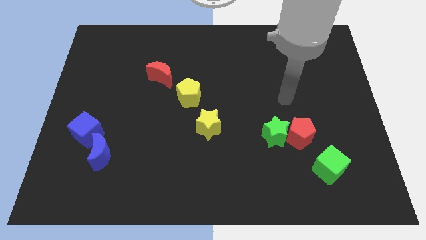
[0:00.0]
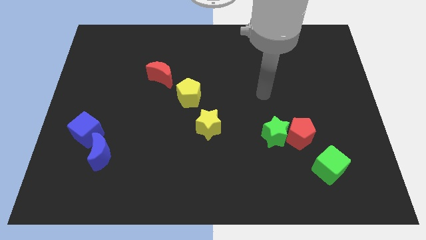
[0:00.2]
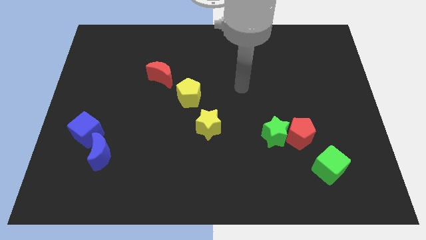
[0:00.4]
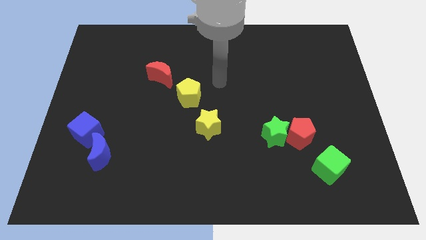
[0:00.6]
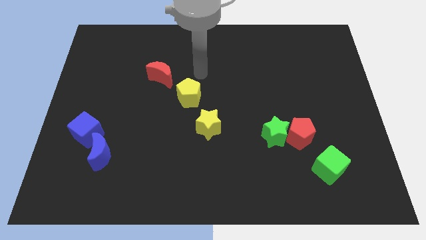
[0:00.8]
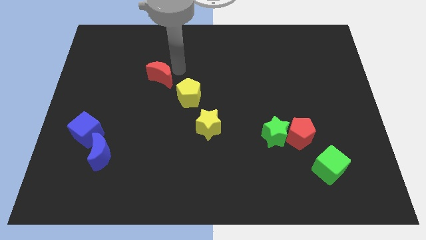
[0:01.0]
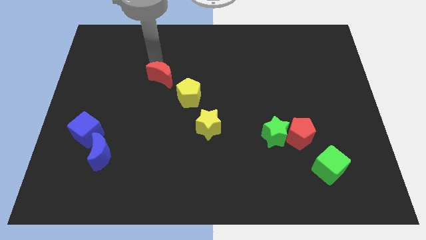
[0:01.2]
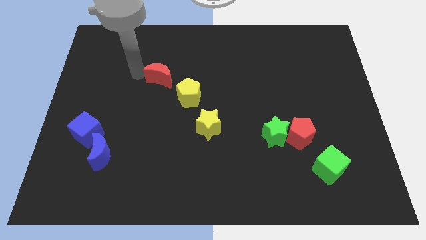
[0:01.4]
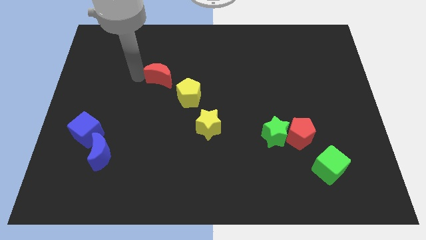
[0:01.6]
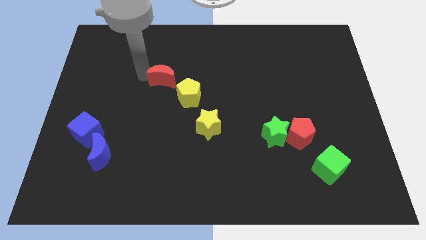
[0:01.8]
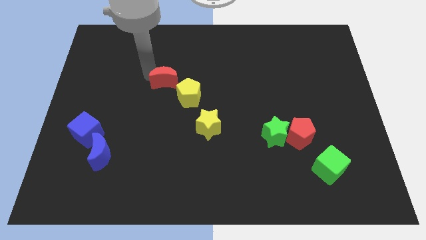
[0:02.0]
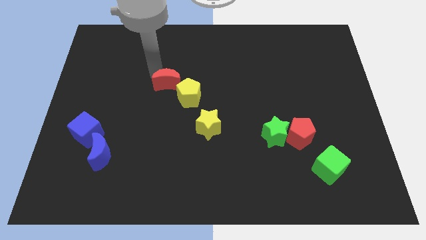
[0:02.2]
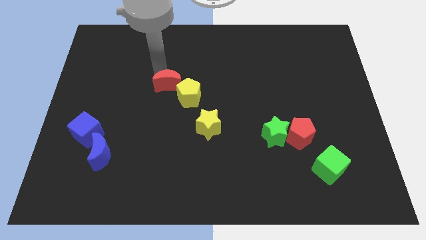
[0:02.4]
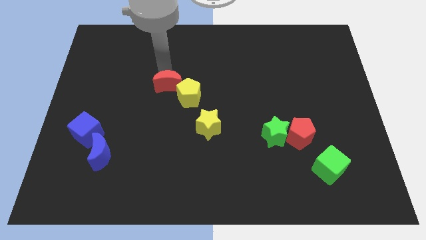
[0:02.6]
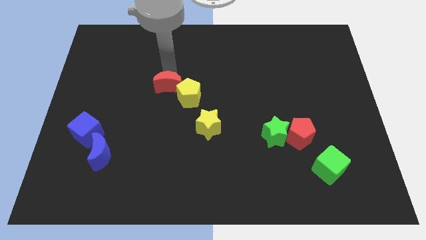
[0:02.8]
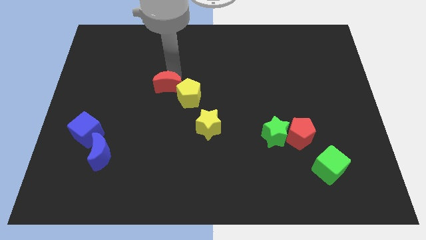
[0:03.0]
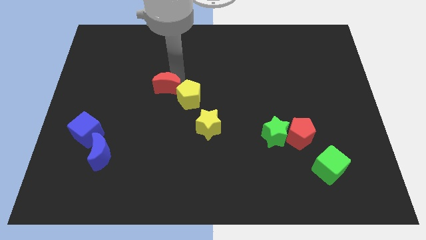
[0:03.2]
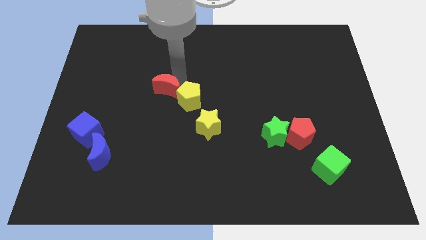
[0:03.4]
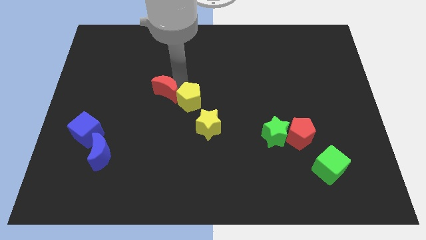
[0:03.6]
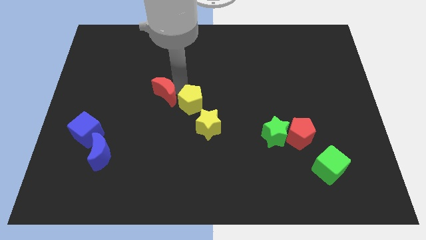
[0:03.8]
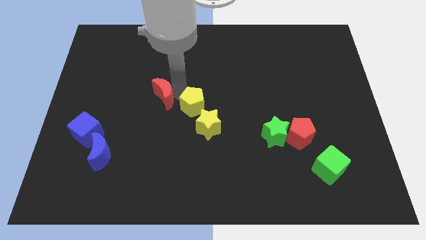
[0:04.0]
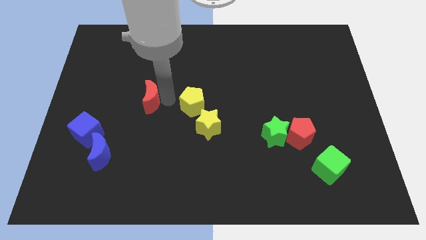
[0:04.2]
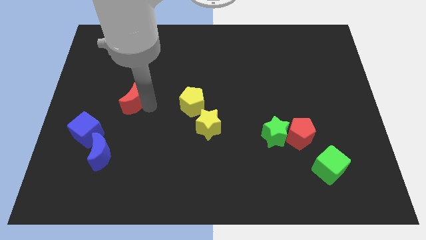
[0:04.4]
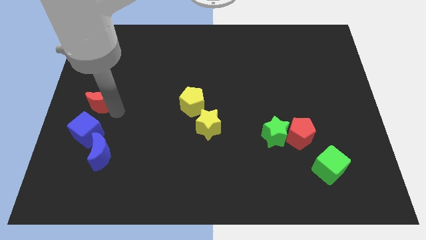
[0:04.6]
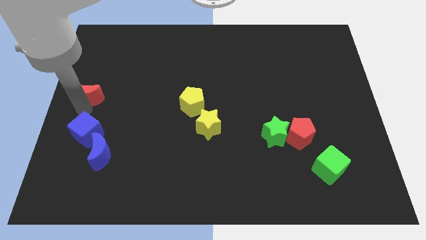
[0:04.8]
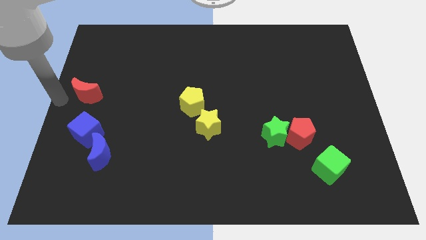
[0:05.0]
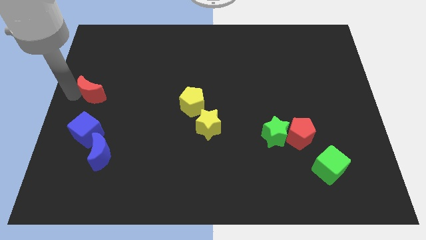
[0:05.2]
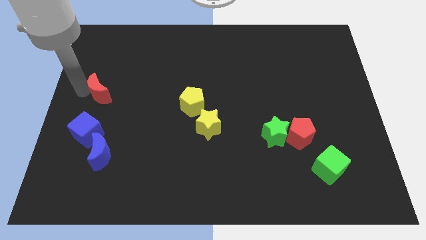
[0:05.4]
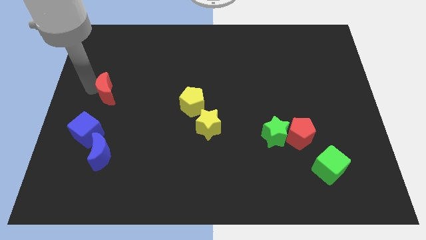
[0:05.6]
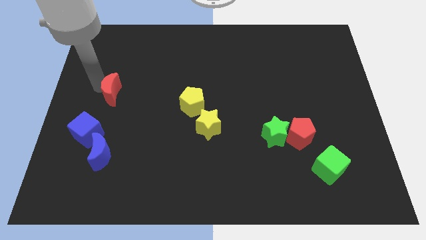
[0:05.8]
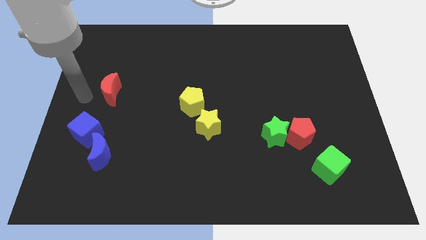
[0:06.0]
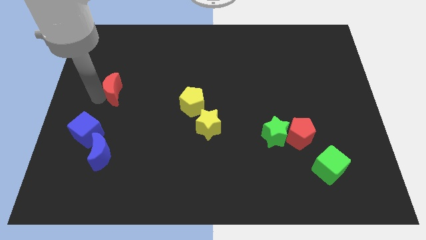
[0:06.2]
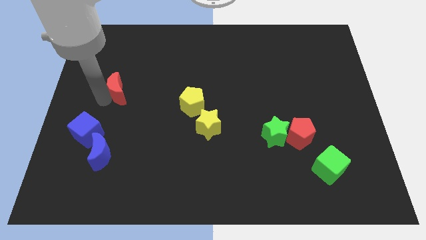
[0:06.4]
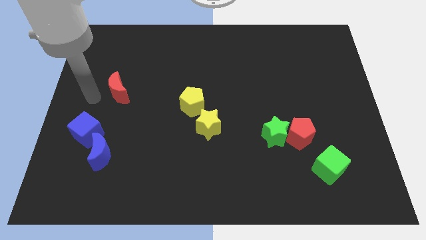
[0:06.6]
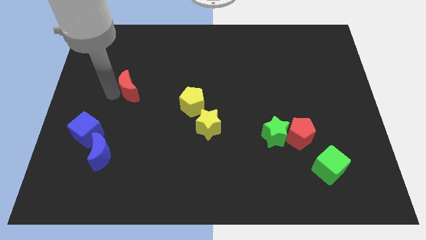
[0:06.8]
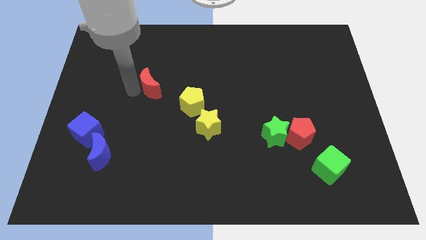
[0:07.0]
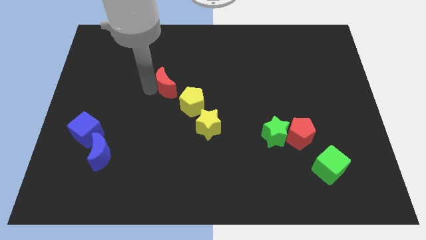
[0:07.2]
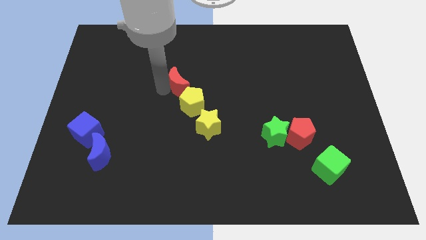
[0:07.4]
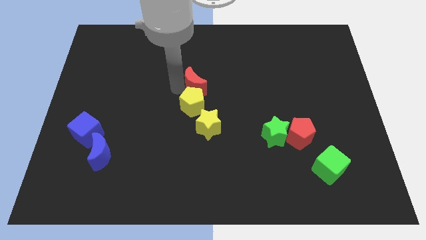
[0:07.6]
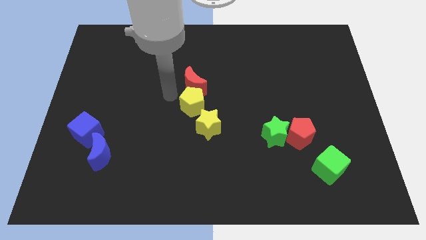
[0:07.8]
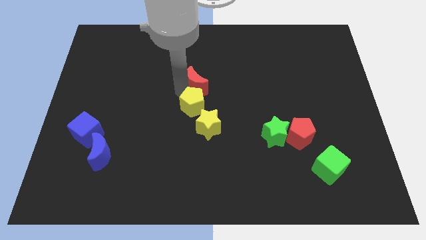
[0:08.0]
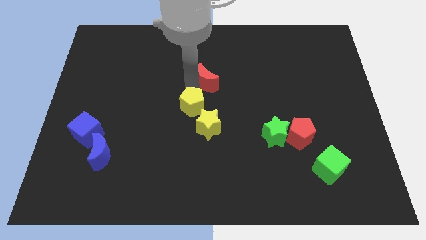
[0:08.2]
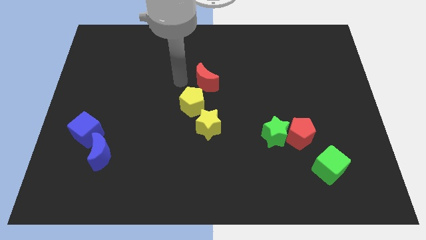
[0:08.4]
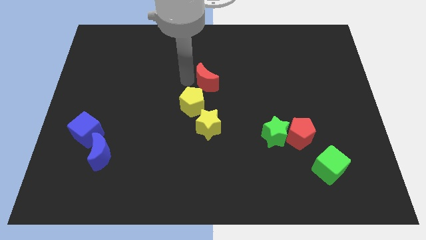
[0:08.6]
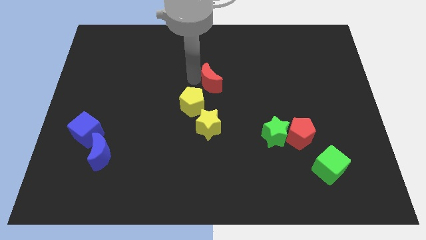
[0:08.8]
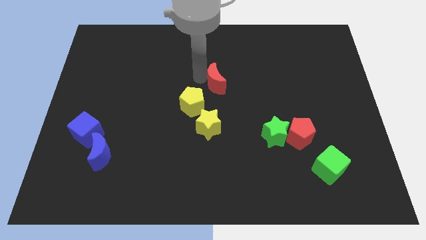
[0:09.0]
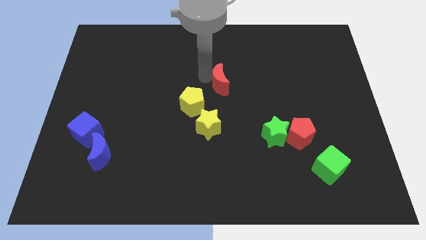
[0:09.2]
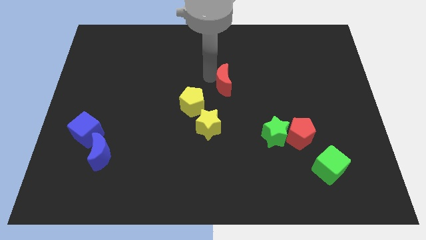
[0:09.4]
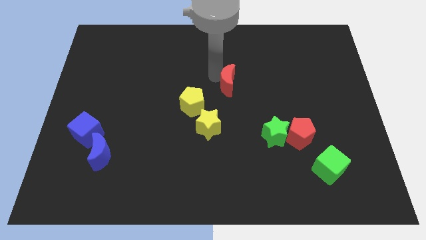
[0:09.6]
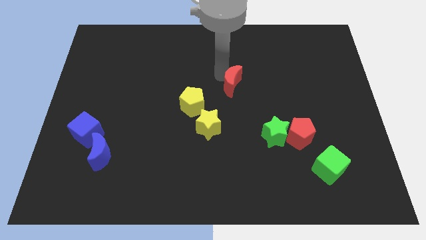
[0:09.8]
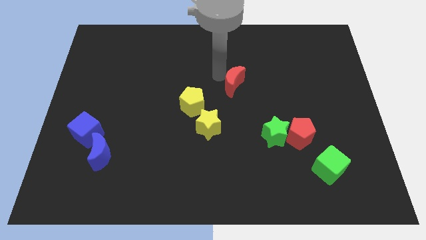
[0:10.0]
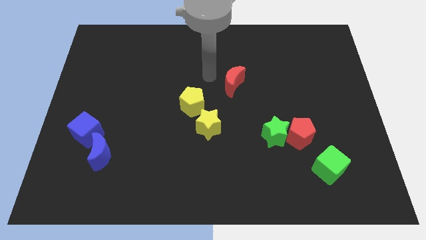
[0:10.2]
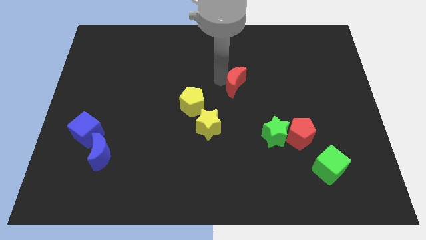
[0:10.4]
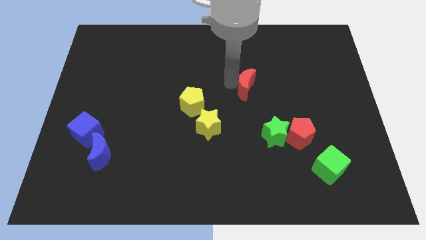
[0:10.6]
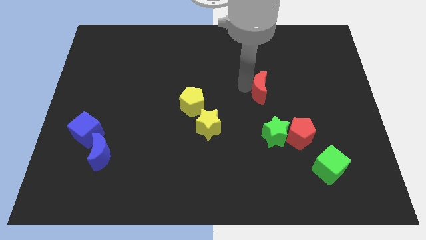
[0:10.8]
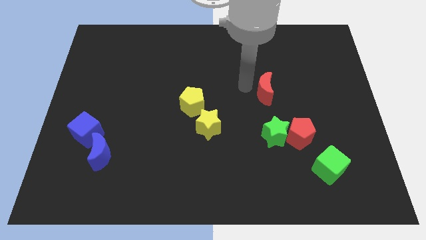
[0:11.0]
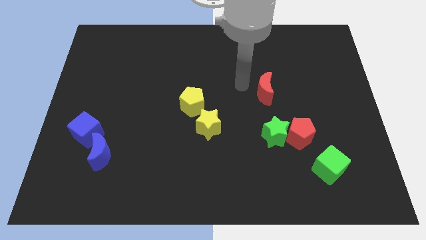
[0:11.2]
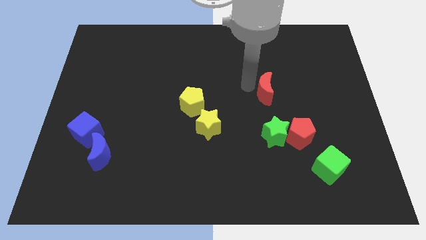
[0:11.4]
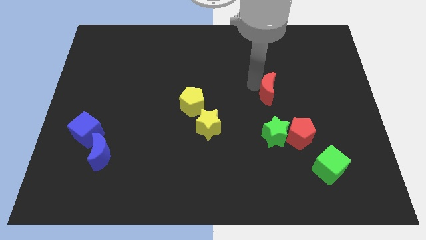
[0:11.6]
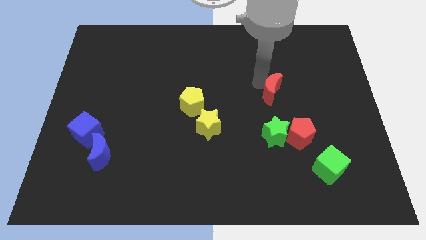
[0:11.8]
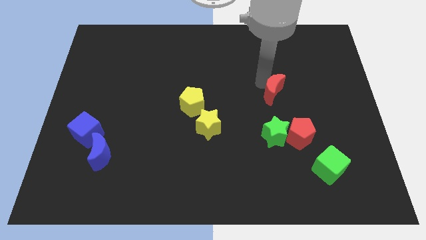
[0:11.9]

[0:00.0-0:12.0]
slide the red moon to the top of the red pentagon

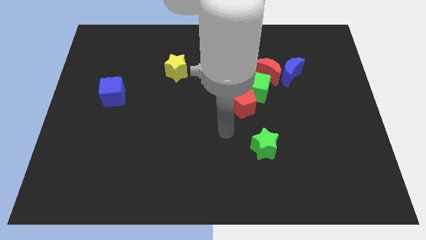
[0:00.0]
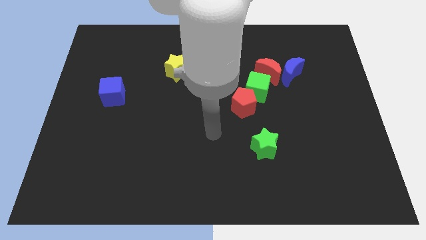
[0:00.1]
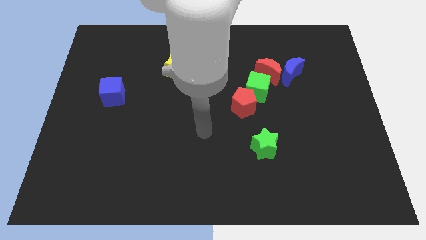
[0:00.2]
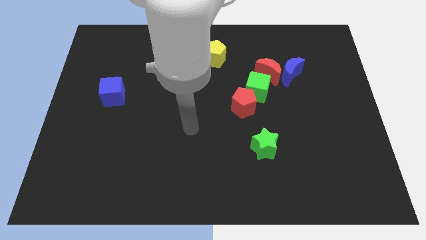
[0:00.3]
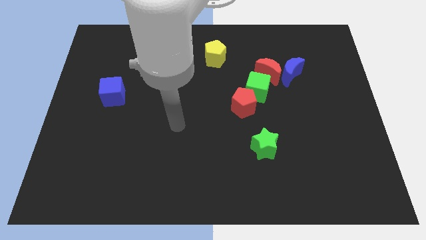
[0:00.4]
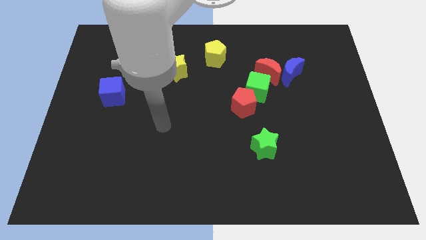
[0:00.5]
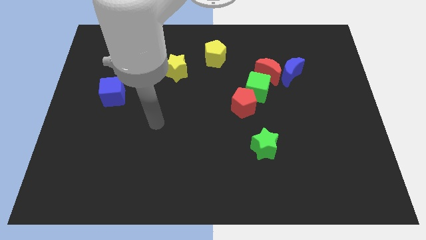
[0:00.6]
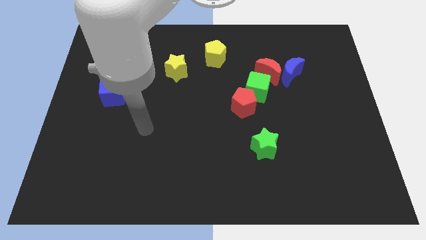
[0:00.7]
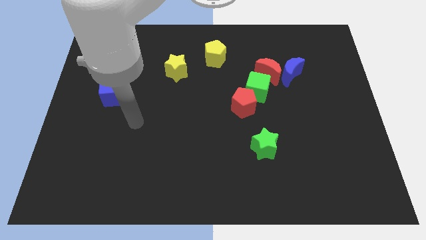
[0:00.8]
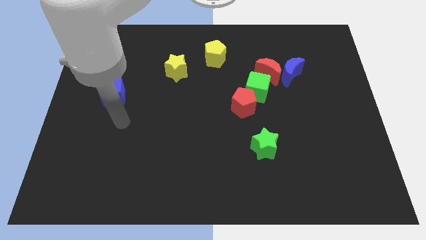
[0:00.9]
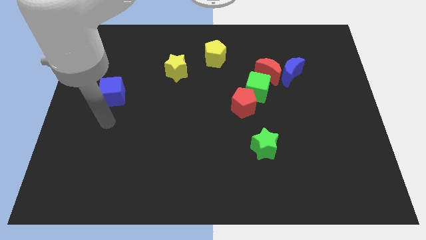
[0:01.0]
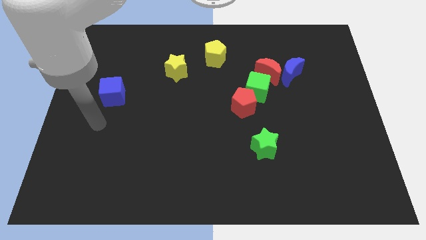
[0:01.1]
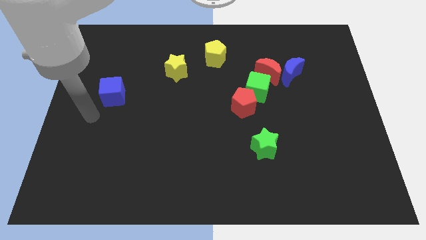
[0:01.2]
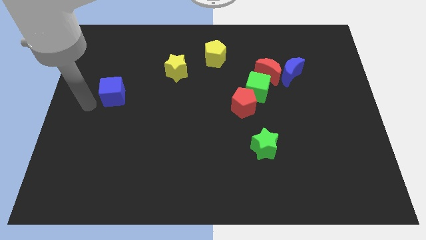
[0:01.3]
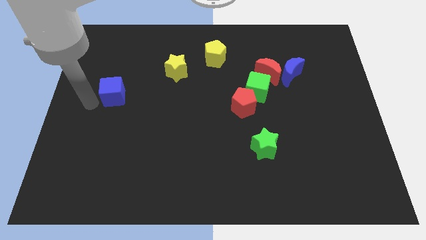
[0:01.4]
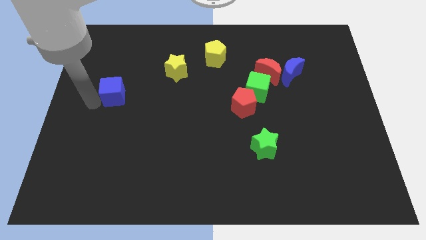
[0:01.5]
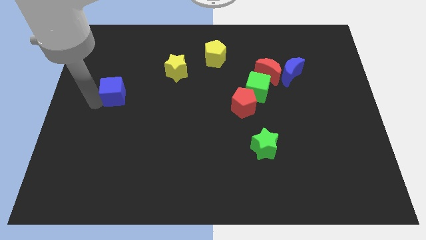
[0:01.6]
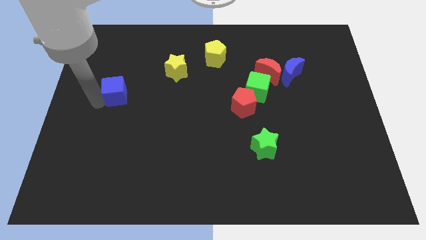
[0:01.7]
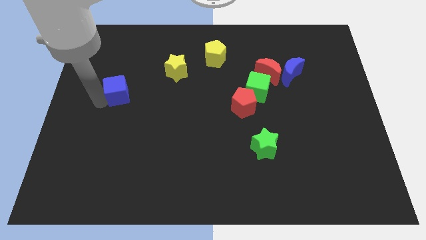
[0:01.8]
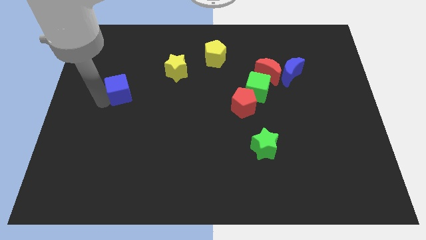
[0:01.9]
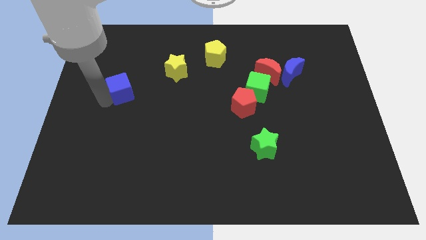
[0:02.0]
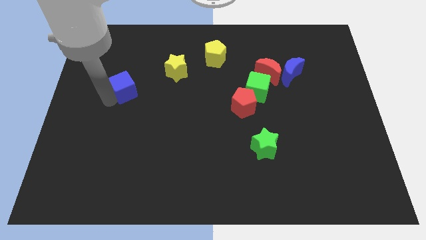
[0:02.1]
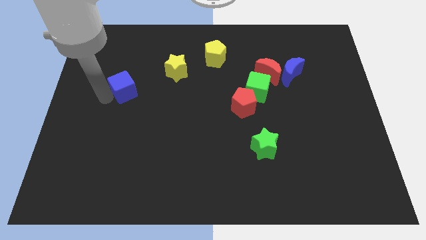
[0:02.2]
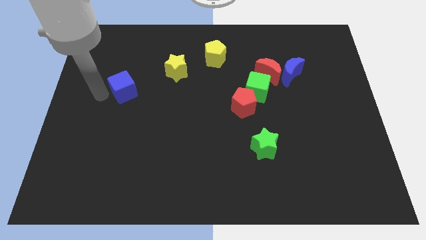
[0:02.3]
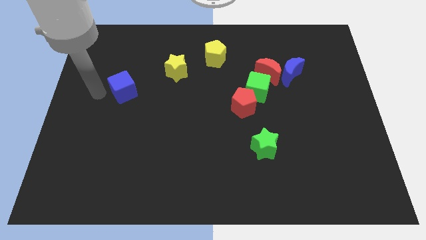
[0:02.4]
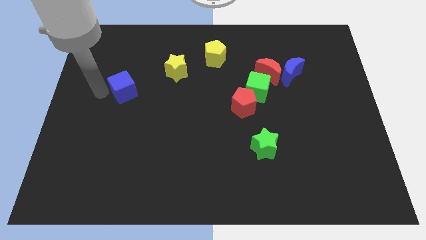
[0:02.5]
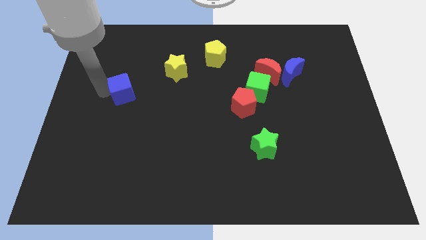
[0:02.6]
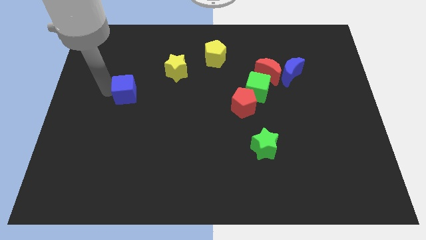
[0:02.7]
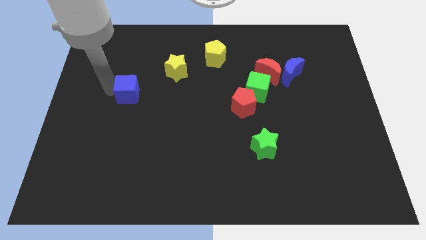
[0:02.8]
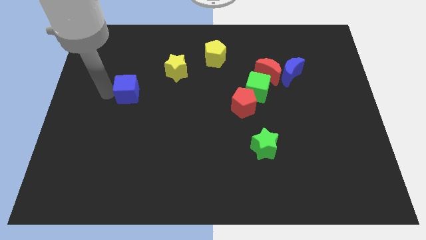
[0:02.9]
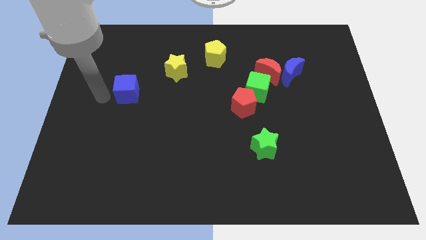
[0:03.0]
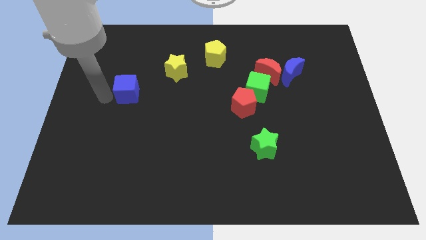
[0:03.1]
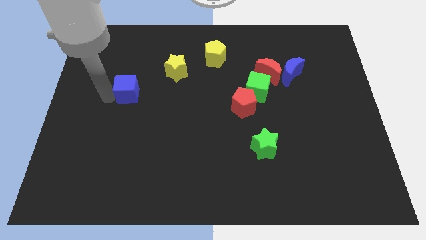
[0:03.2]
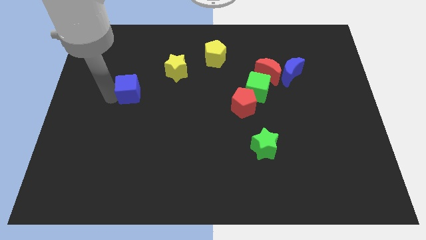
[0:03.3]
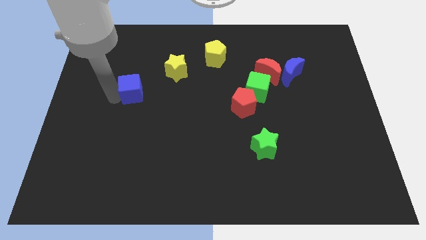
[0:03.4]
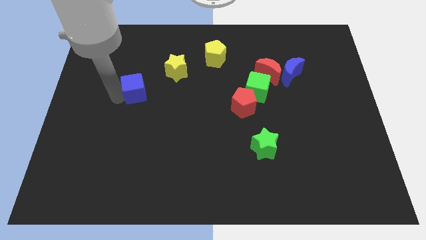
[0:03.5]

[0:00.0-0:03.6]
move the blue cube to the bottom left side of the yellow star
